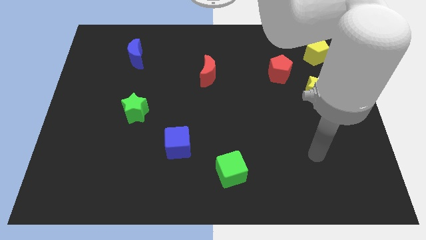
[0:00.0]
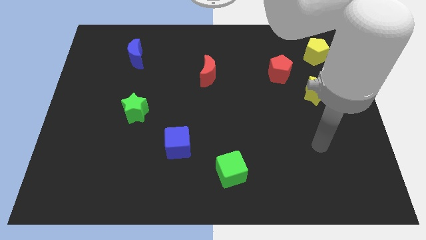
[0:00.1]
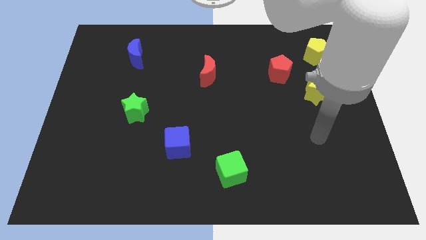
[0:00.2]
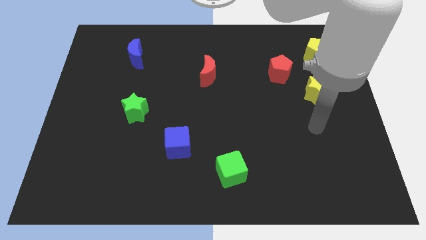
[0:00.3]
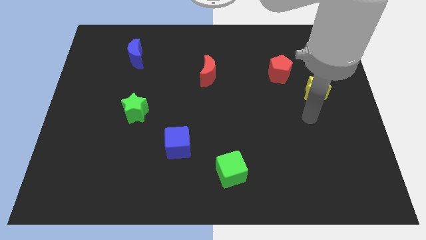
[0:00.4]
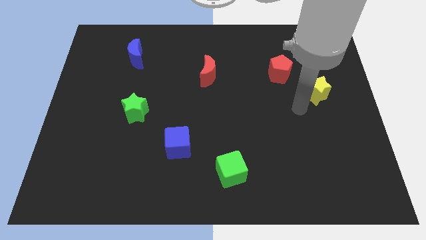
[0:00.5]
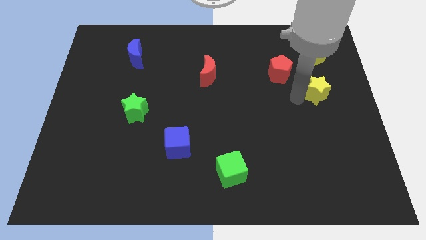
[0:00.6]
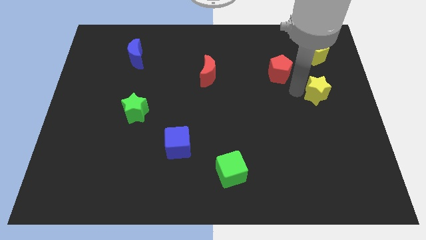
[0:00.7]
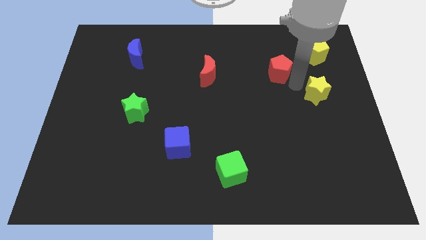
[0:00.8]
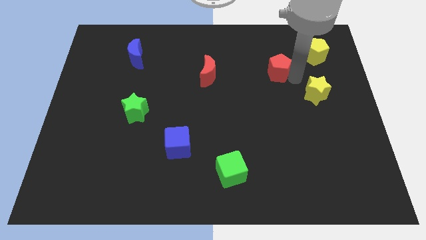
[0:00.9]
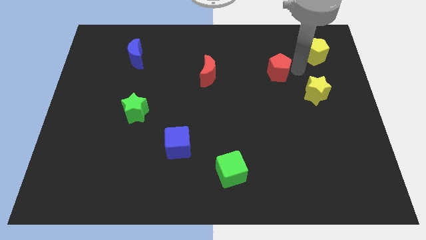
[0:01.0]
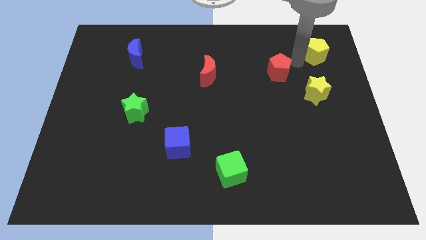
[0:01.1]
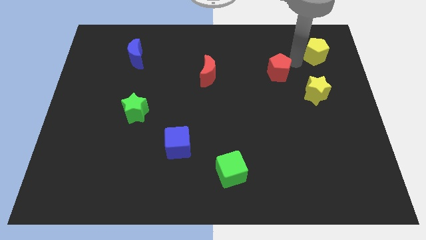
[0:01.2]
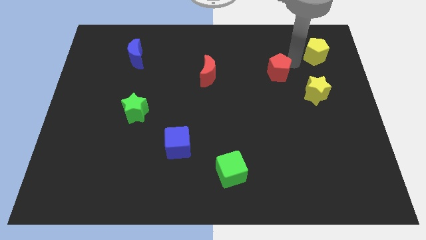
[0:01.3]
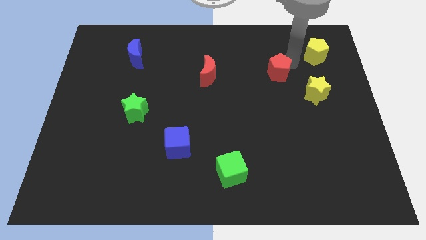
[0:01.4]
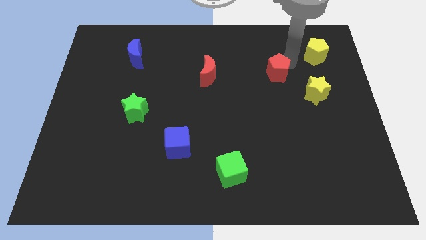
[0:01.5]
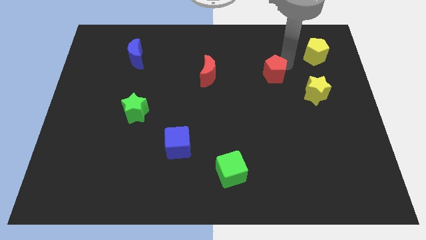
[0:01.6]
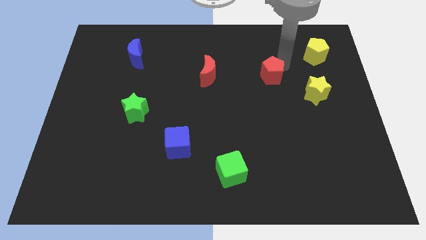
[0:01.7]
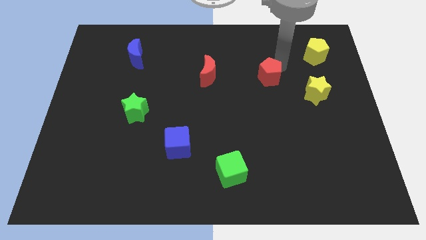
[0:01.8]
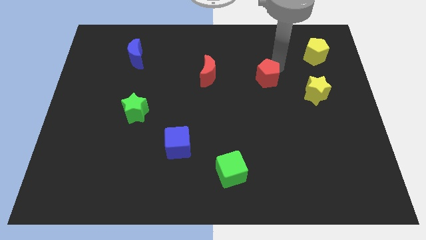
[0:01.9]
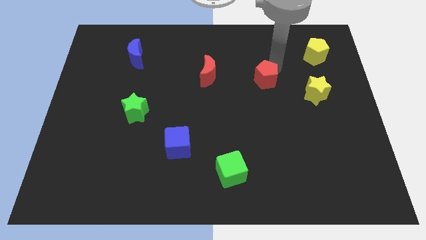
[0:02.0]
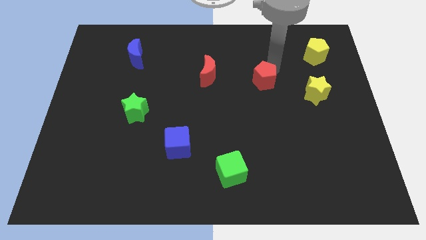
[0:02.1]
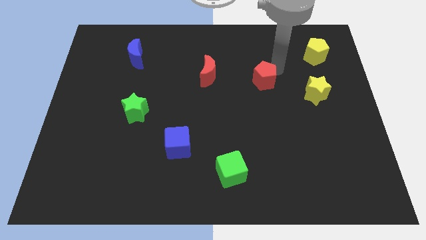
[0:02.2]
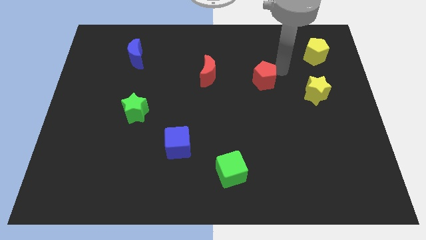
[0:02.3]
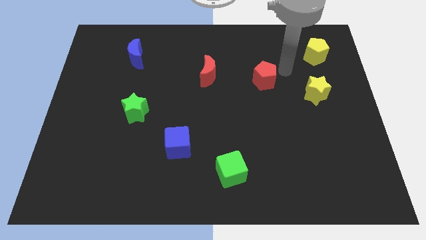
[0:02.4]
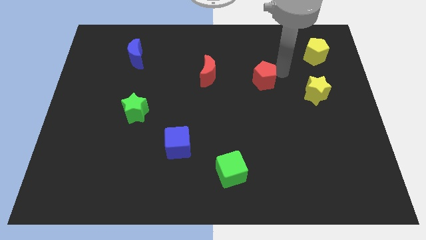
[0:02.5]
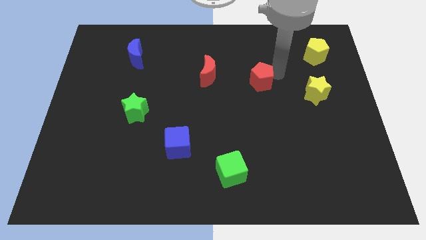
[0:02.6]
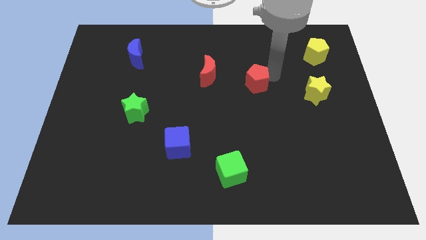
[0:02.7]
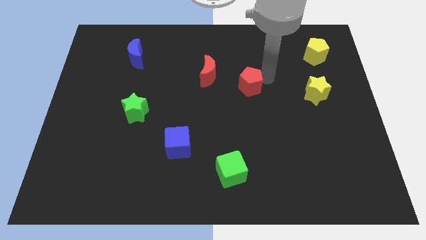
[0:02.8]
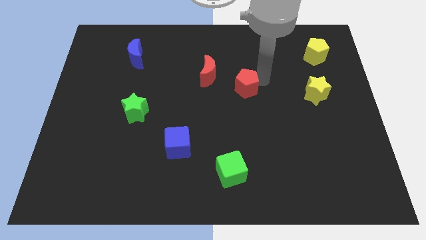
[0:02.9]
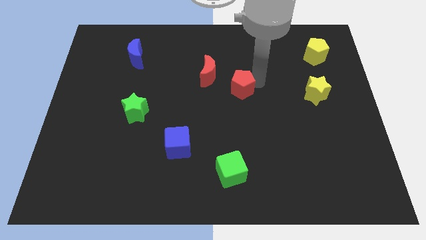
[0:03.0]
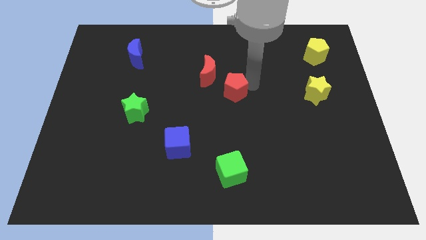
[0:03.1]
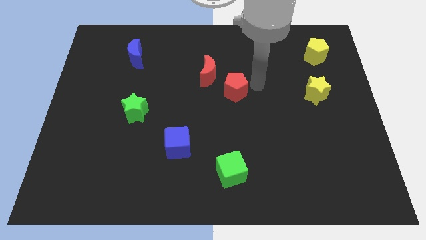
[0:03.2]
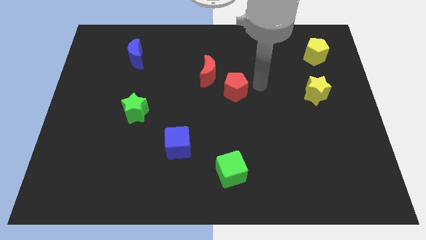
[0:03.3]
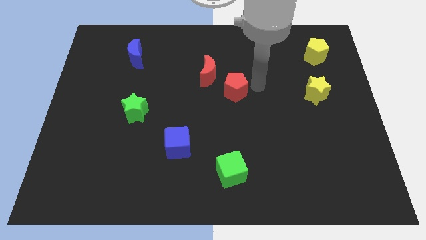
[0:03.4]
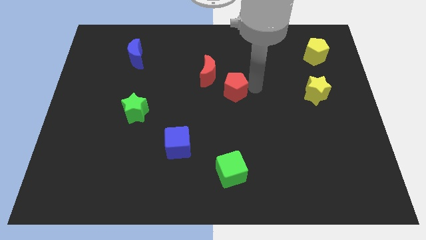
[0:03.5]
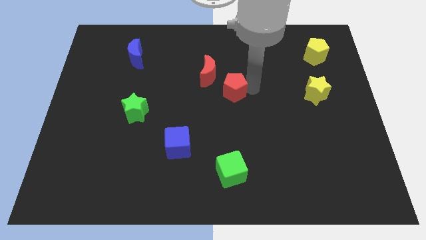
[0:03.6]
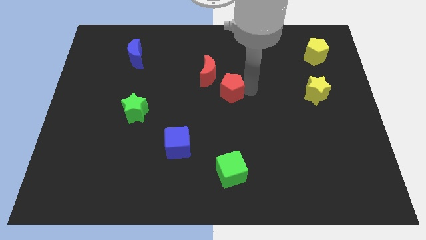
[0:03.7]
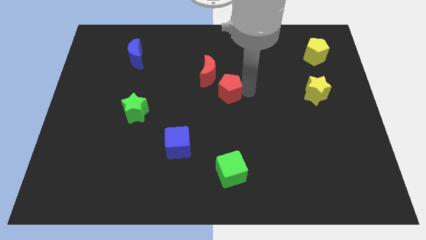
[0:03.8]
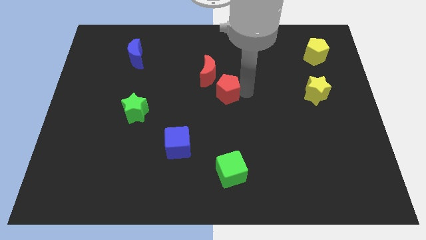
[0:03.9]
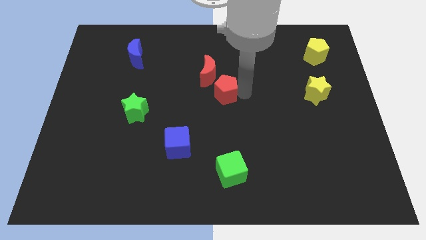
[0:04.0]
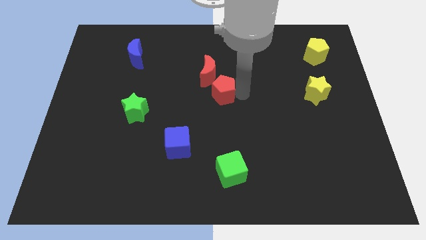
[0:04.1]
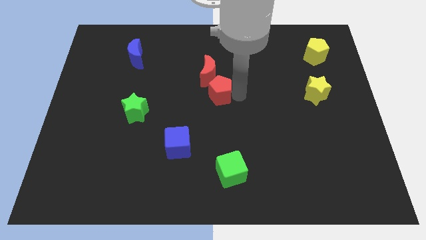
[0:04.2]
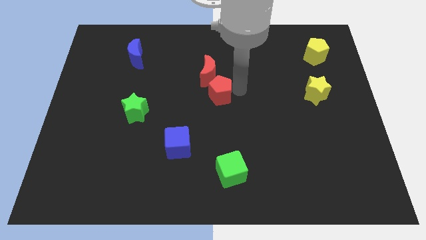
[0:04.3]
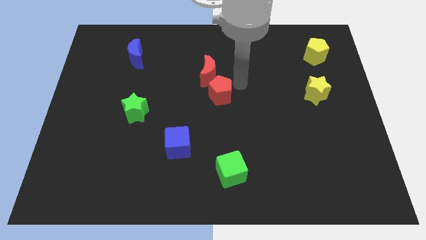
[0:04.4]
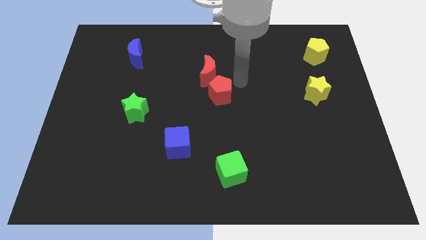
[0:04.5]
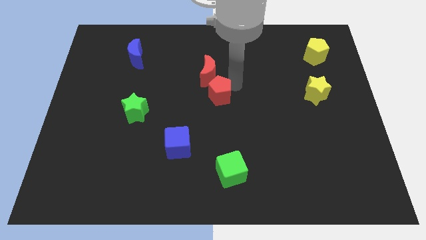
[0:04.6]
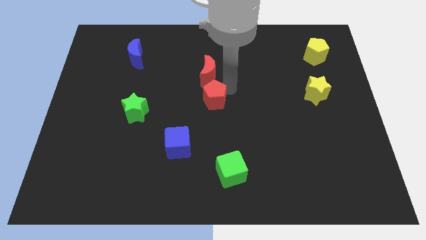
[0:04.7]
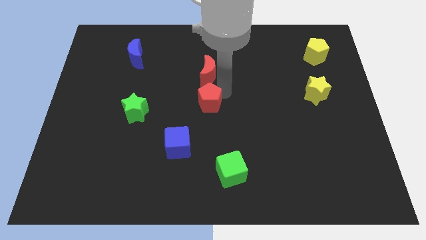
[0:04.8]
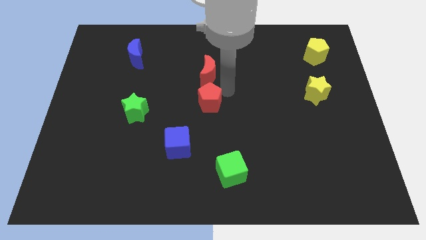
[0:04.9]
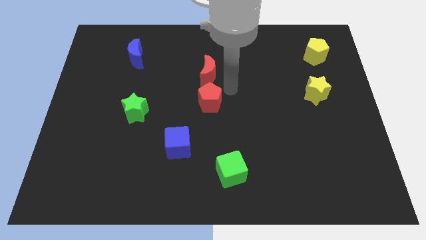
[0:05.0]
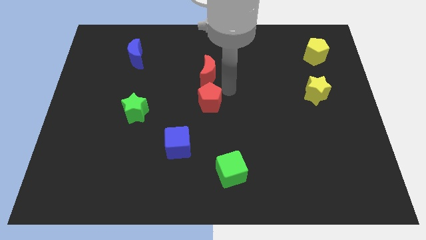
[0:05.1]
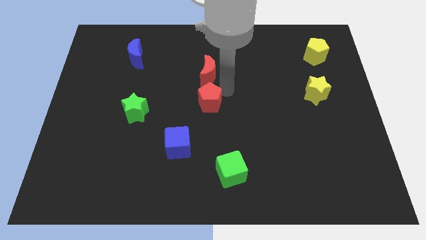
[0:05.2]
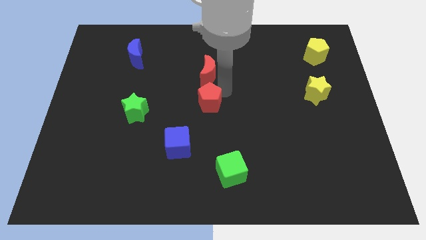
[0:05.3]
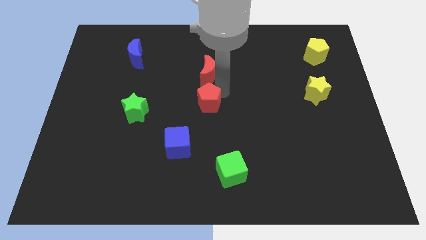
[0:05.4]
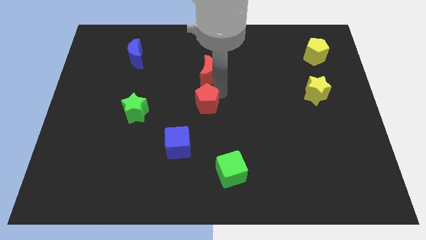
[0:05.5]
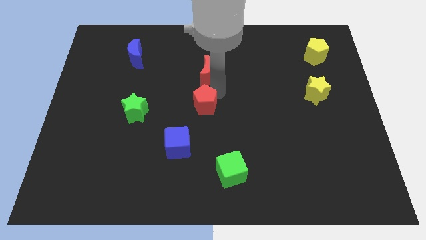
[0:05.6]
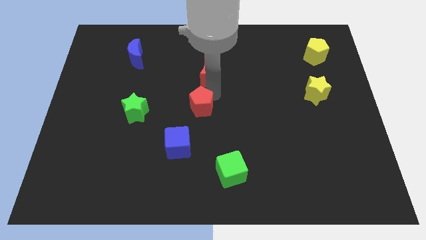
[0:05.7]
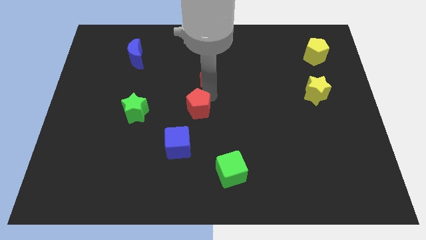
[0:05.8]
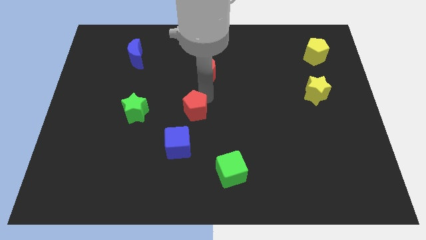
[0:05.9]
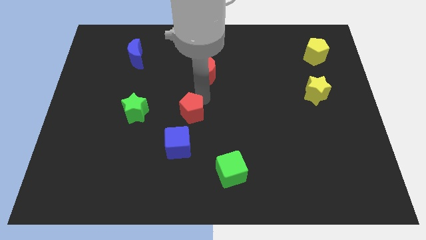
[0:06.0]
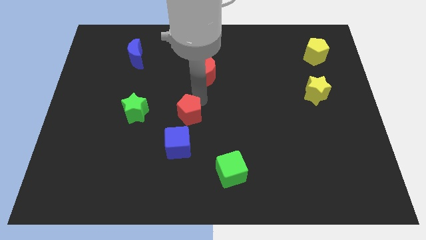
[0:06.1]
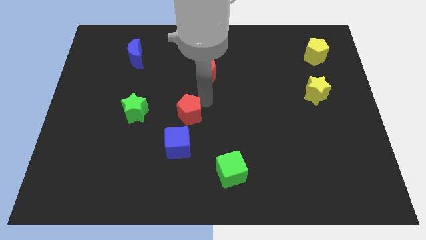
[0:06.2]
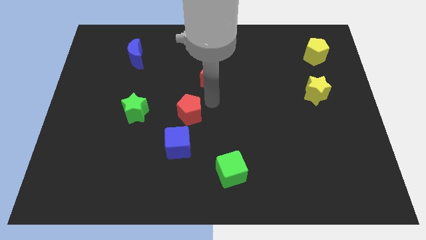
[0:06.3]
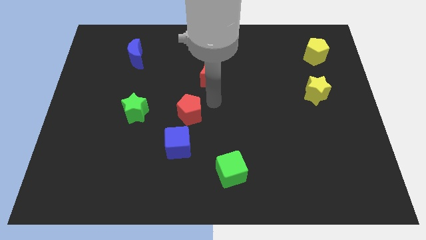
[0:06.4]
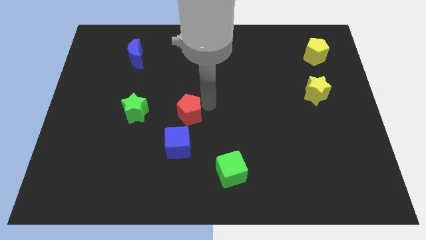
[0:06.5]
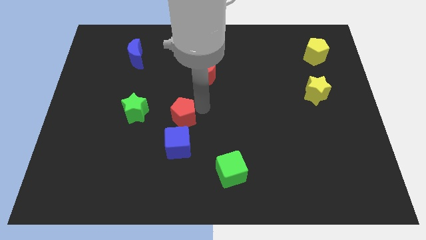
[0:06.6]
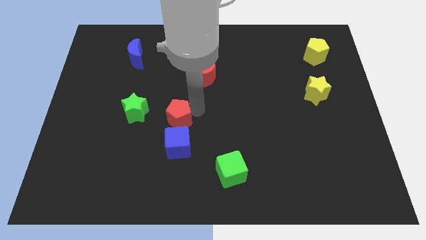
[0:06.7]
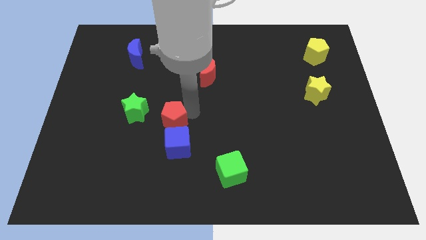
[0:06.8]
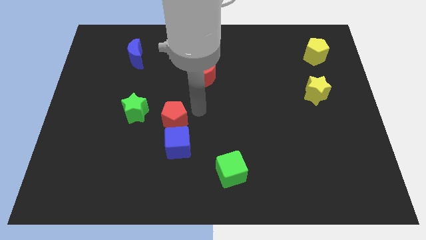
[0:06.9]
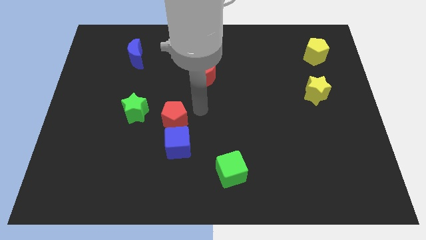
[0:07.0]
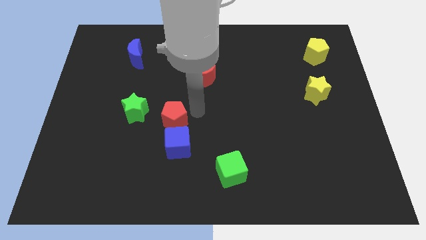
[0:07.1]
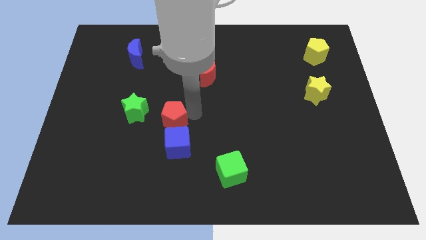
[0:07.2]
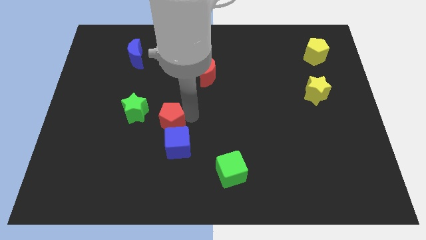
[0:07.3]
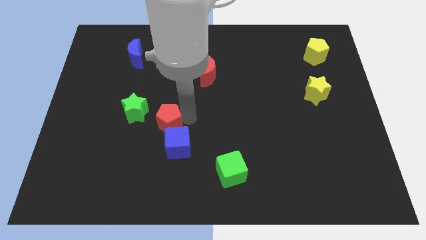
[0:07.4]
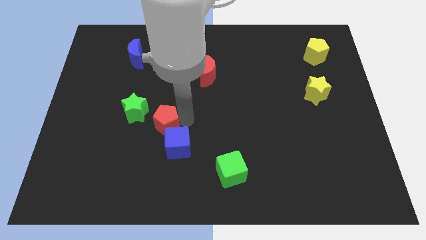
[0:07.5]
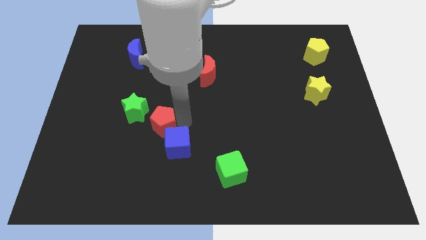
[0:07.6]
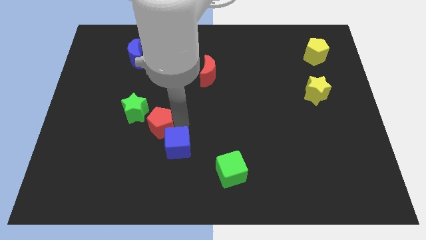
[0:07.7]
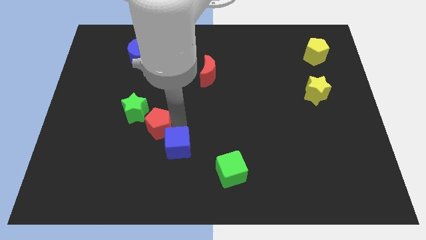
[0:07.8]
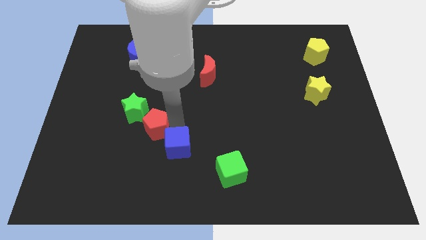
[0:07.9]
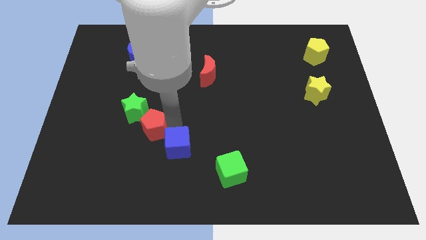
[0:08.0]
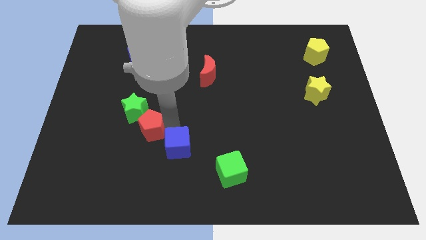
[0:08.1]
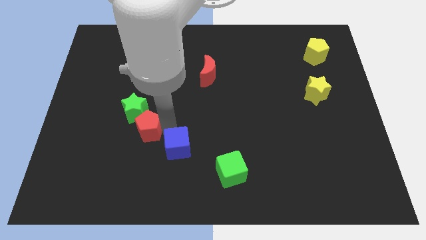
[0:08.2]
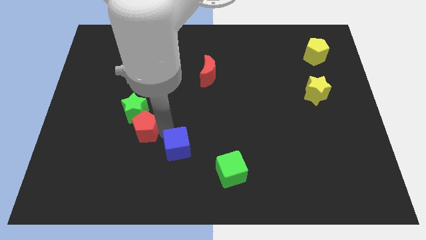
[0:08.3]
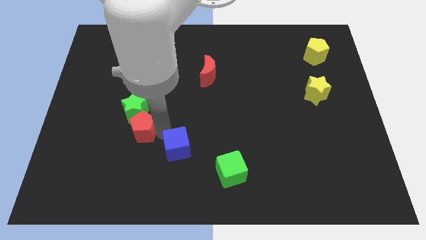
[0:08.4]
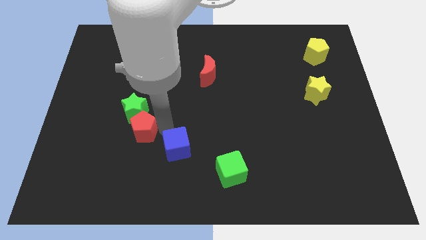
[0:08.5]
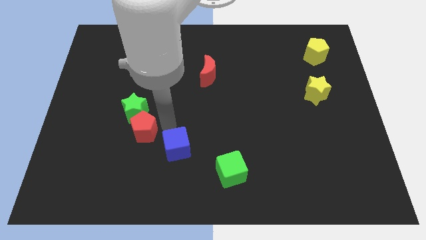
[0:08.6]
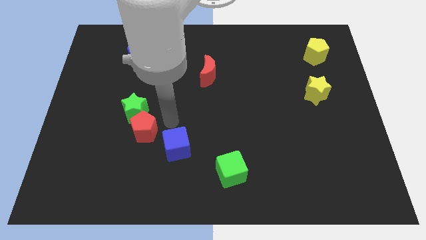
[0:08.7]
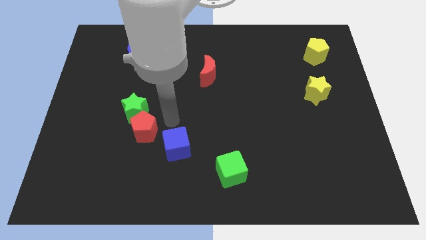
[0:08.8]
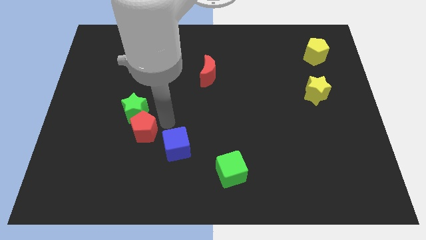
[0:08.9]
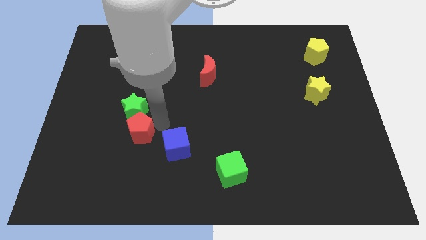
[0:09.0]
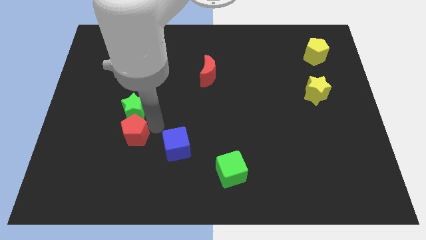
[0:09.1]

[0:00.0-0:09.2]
slide the red pentagon diagonally down and to the left of the green star
